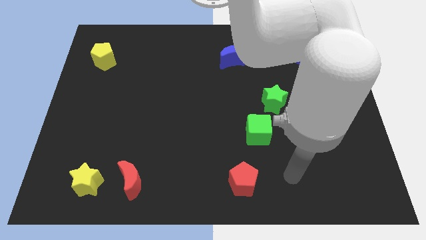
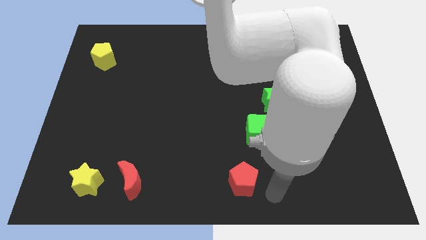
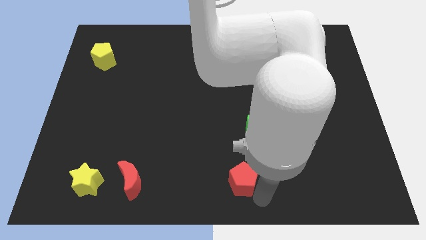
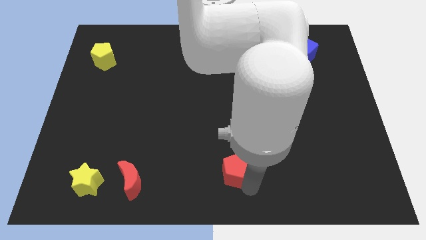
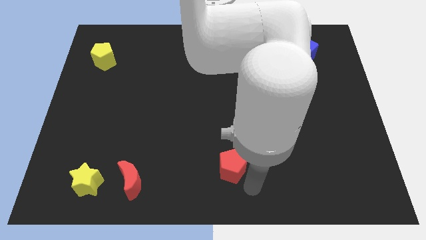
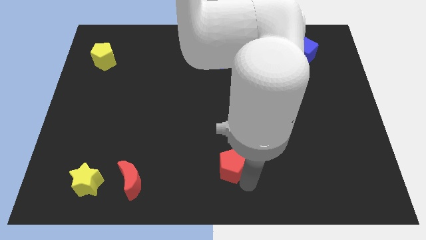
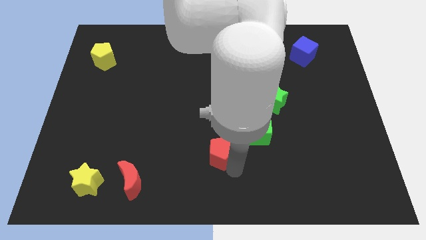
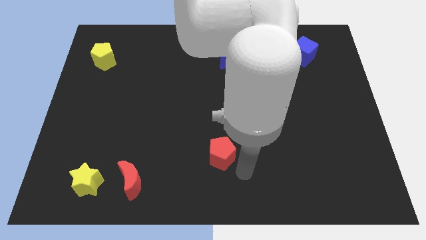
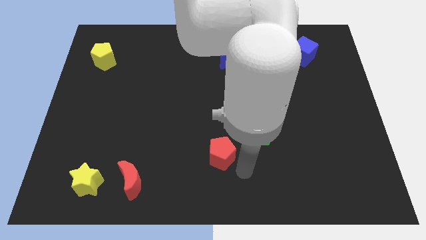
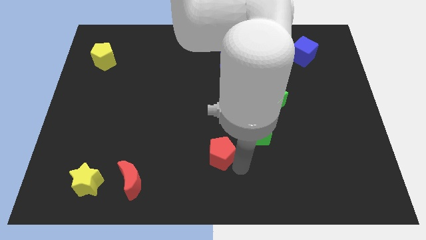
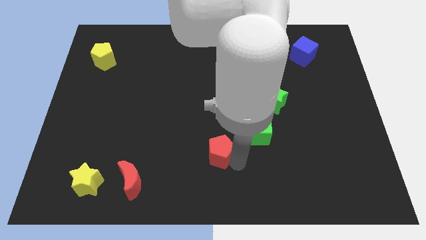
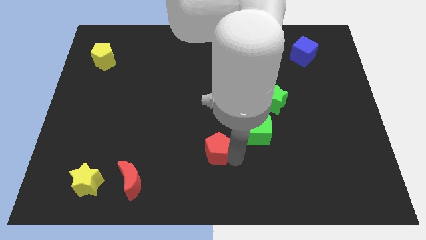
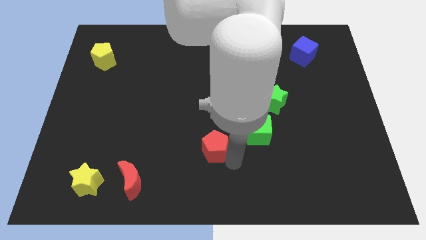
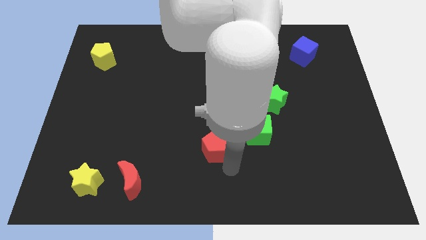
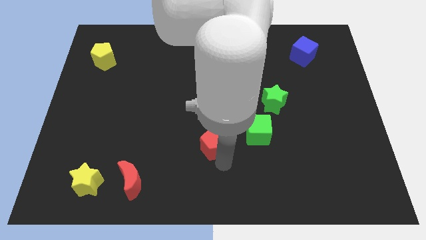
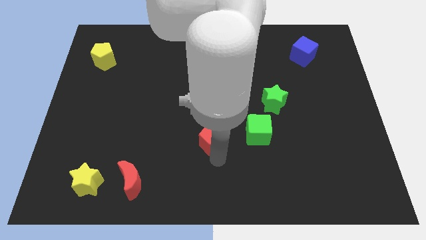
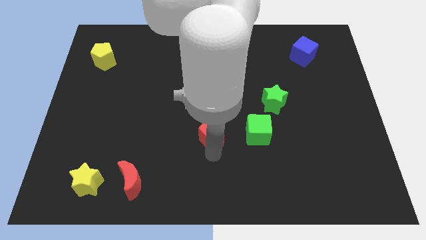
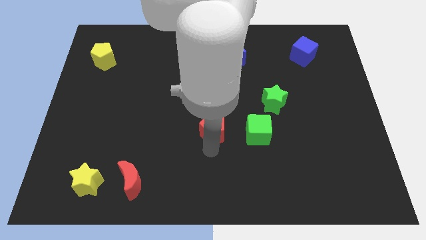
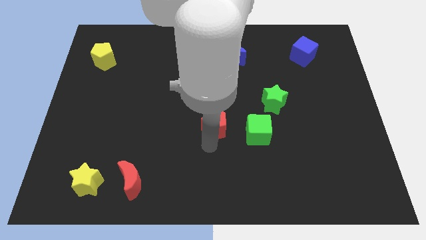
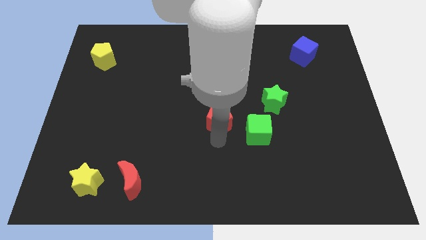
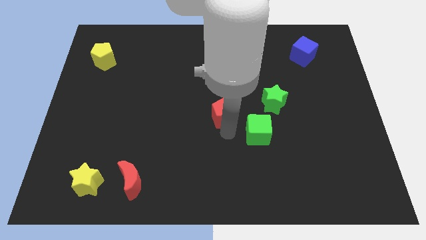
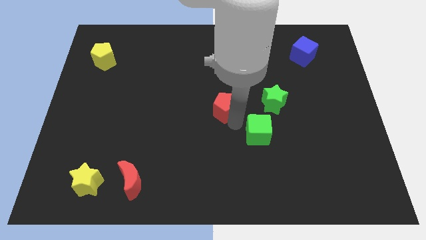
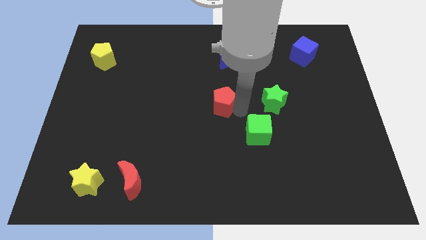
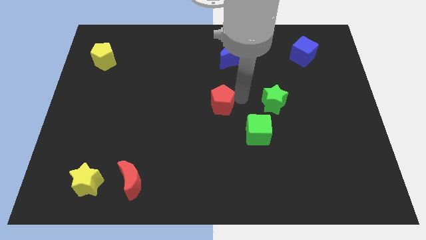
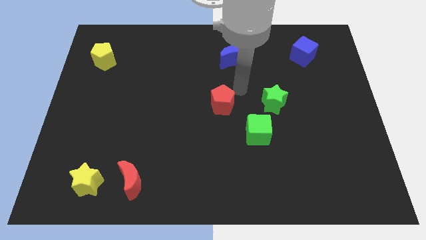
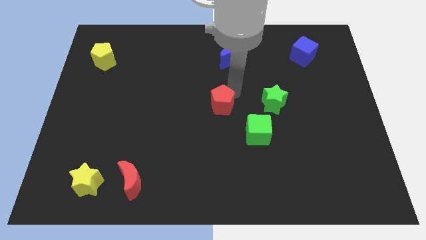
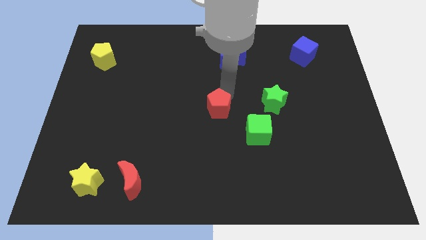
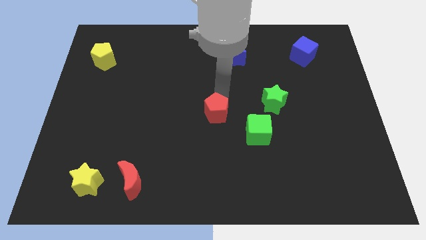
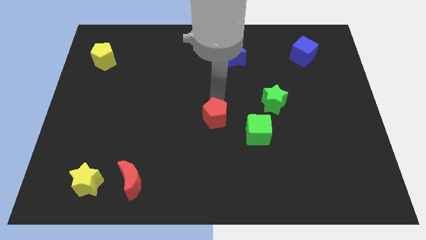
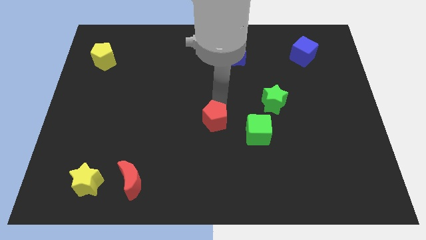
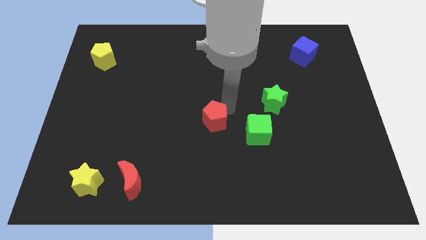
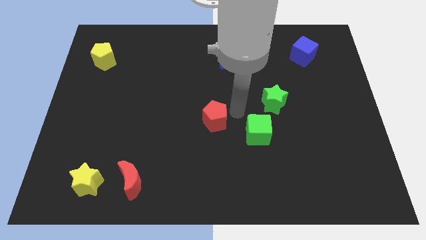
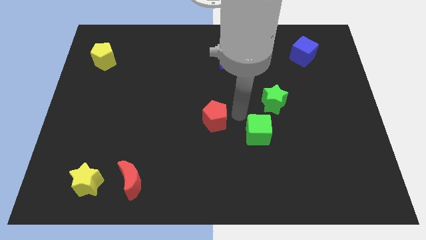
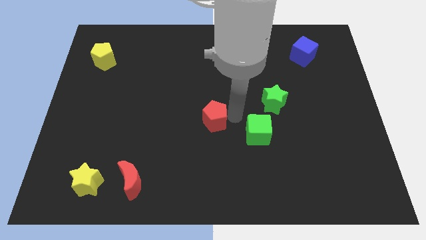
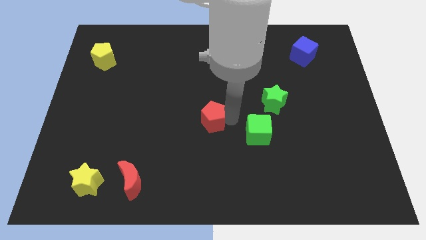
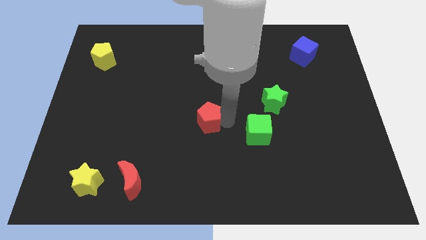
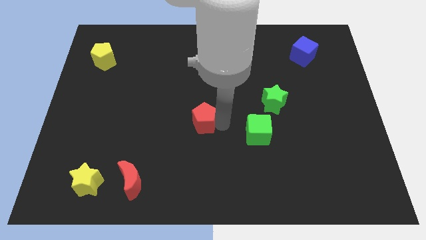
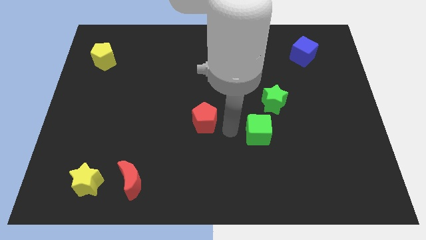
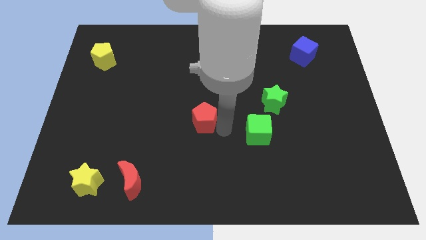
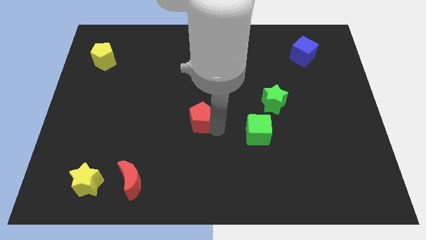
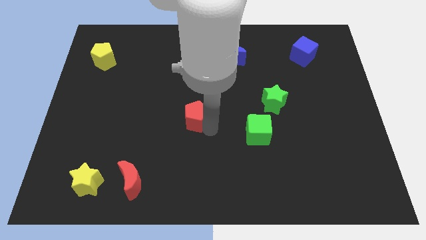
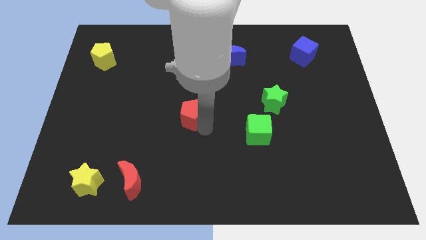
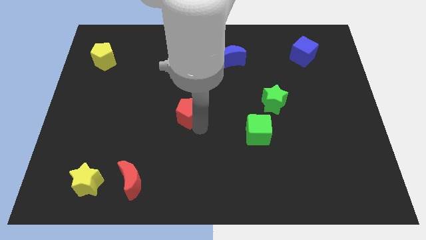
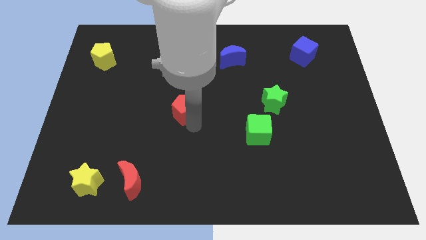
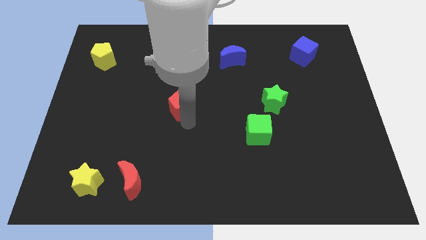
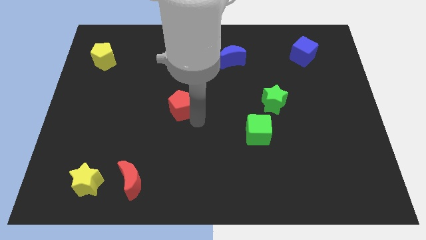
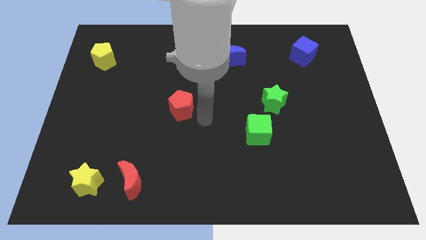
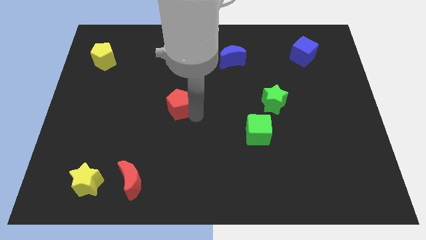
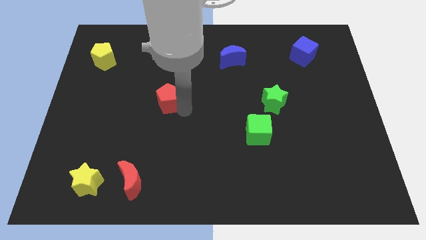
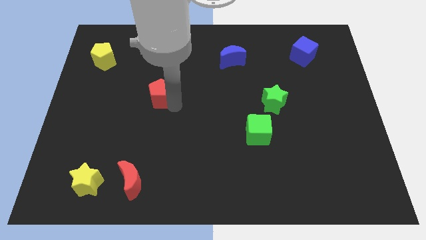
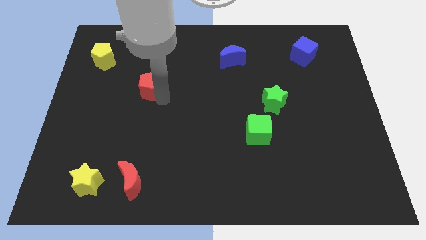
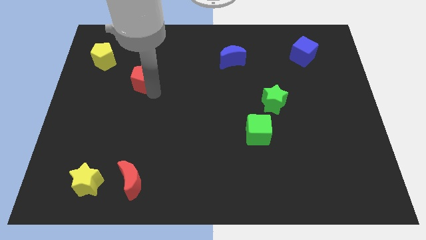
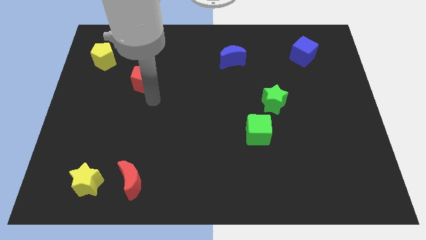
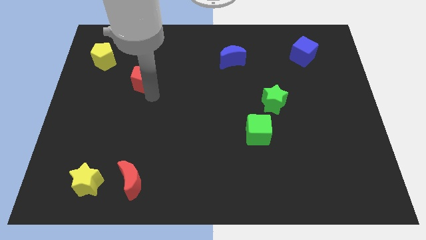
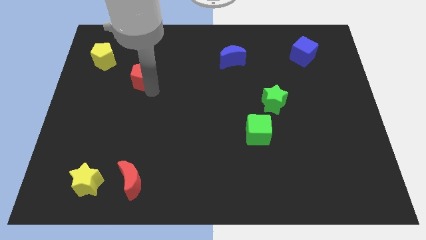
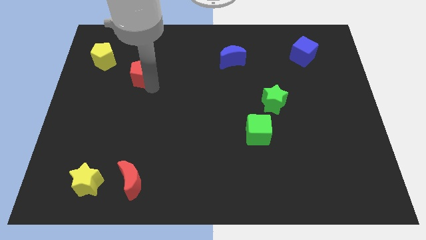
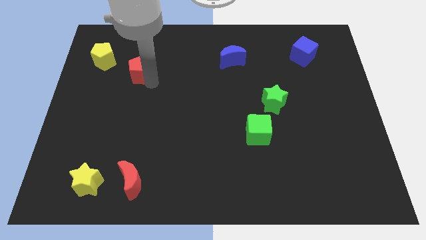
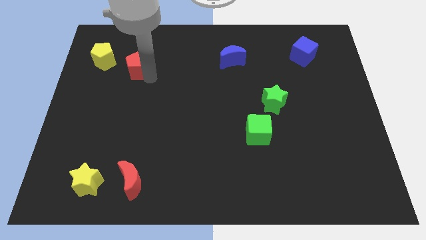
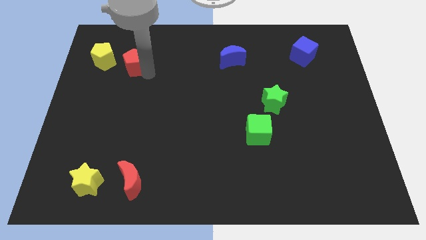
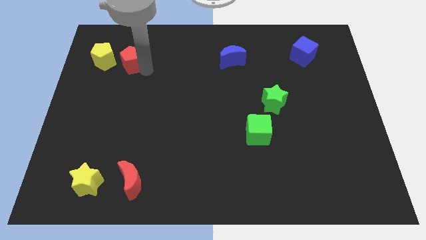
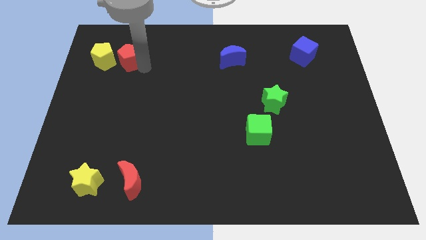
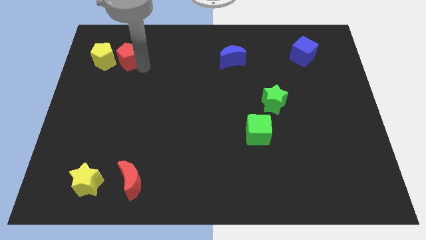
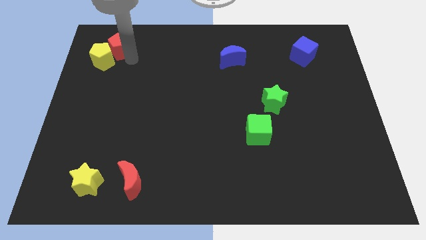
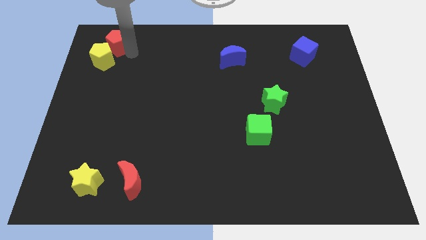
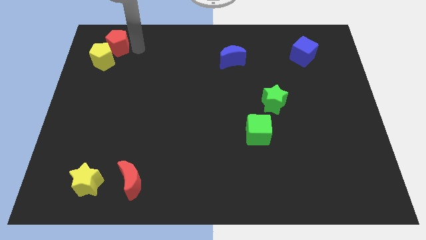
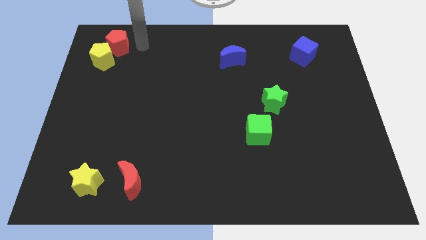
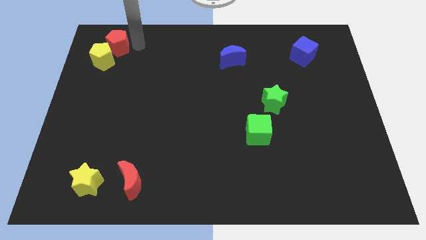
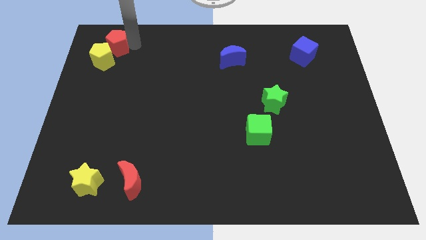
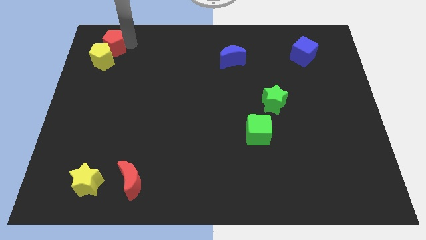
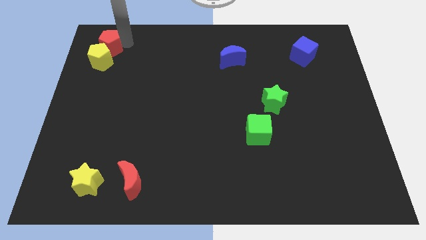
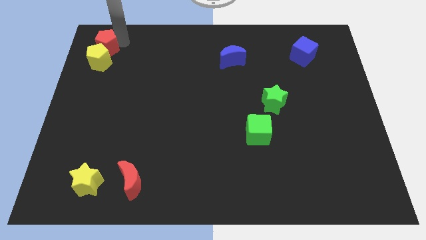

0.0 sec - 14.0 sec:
move the red pentagon to the top left corner

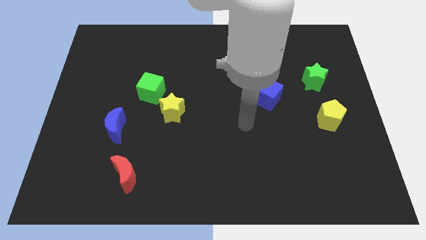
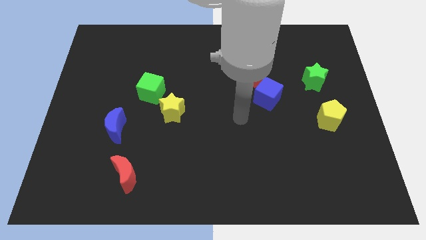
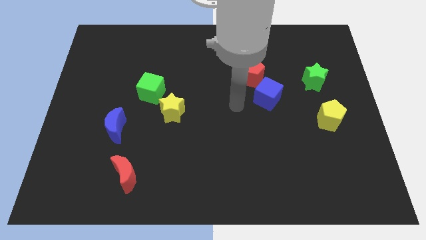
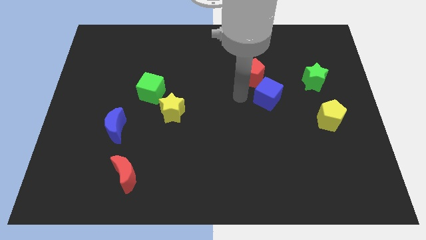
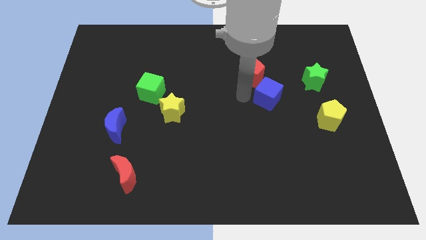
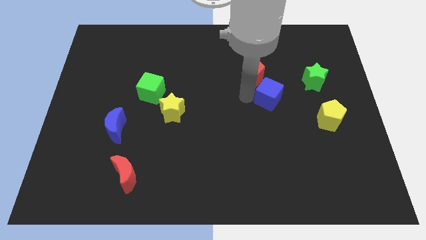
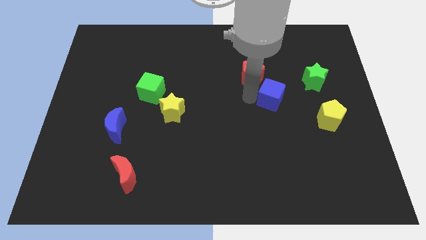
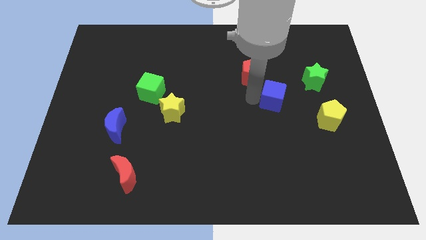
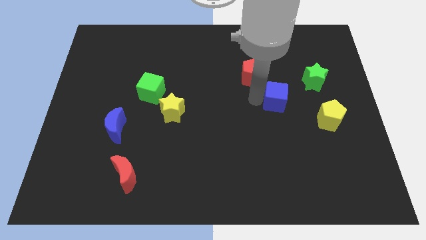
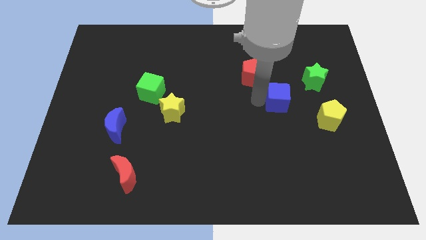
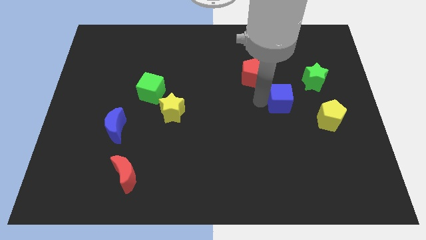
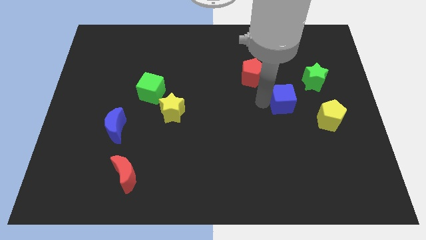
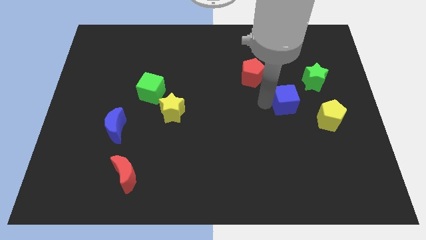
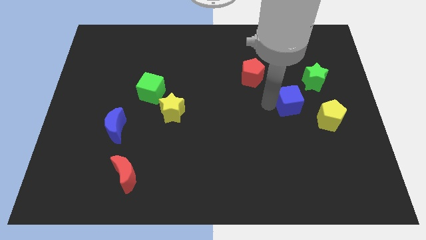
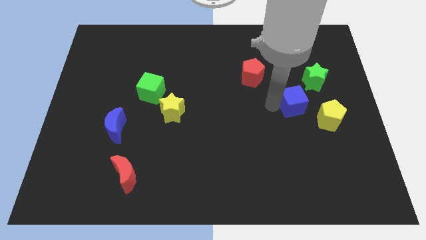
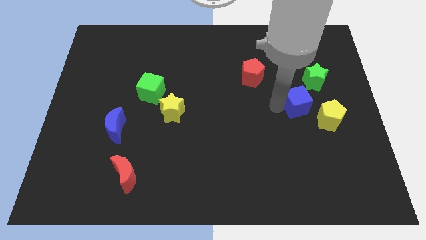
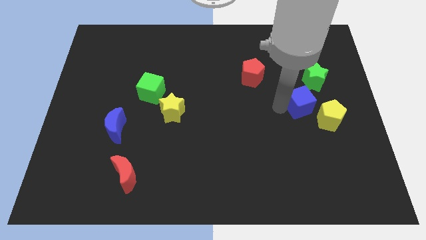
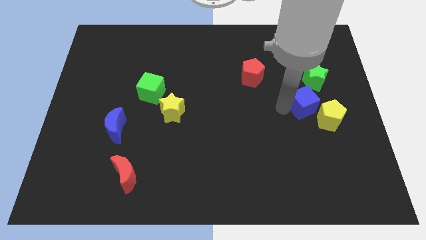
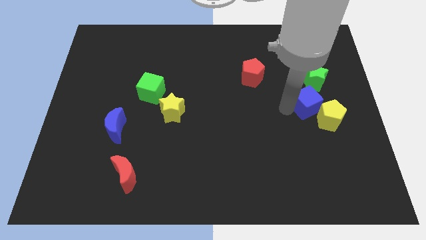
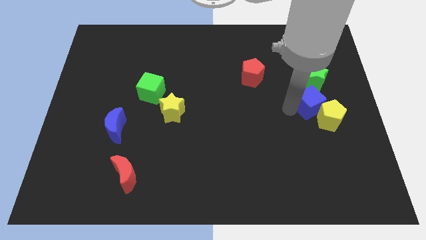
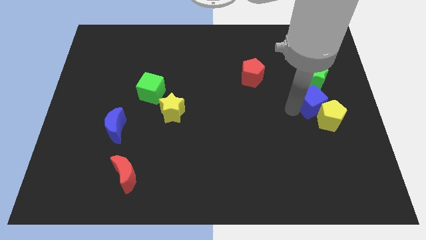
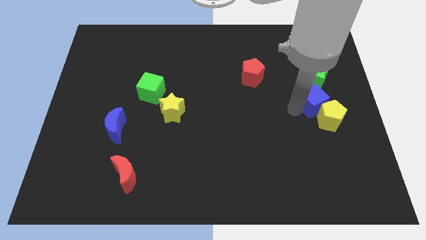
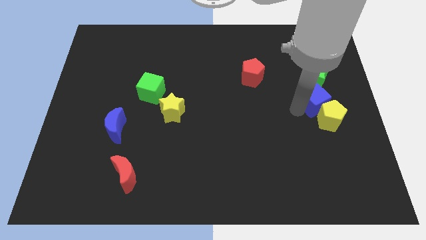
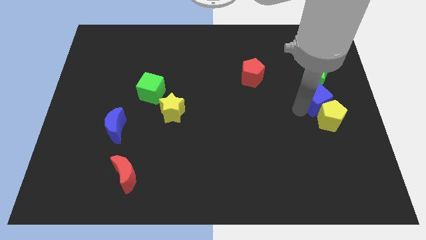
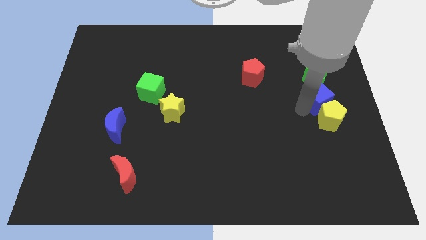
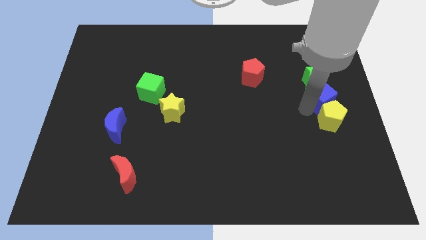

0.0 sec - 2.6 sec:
put the blue cube to the right side of the board
